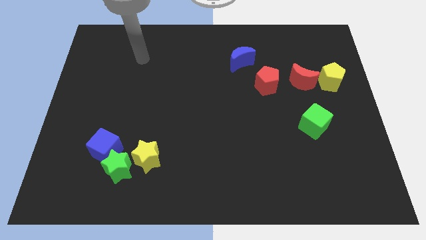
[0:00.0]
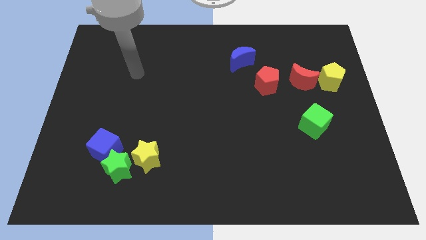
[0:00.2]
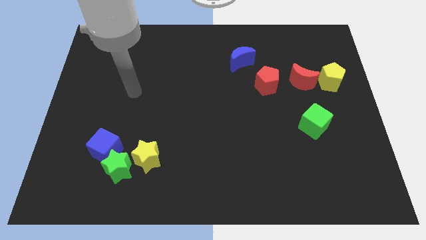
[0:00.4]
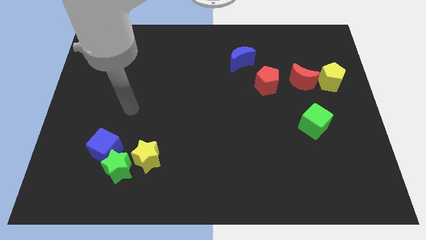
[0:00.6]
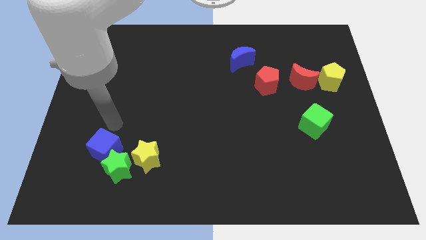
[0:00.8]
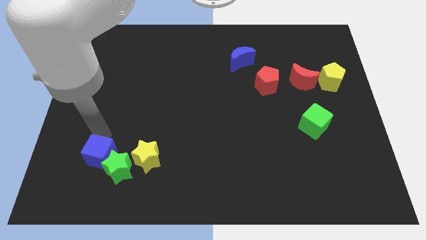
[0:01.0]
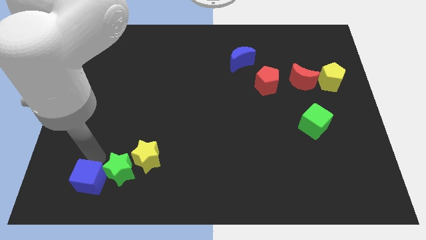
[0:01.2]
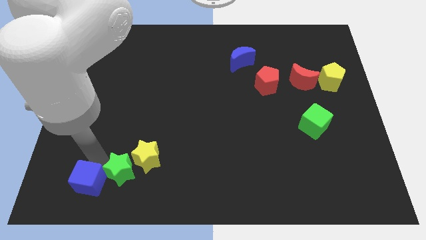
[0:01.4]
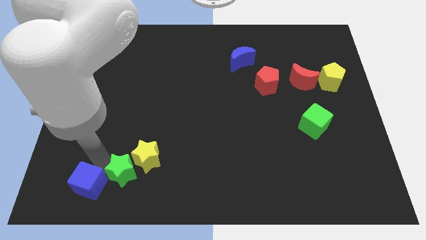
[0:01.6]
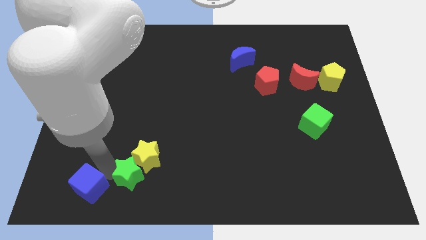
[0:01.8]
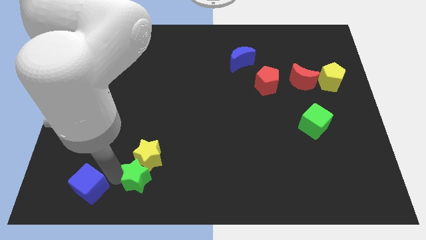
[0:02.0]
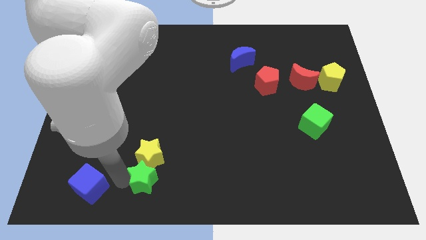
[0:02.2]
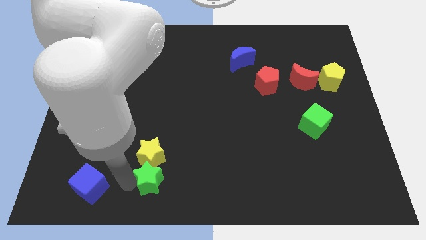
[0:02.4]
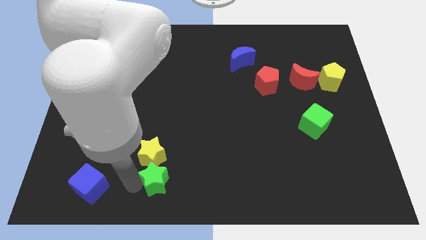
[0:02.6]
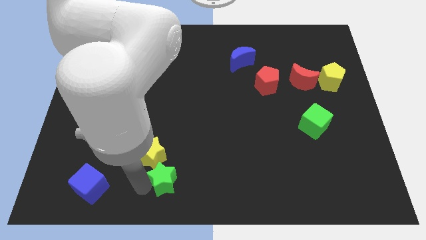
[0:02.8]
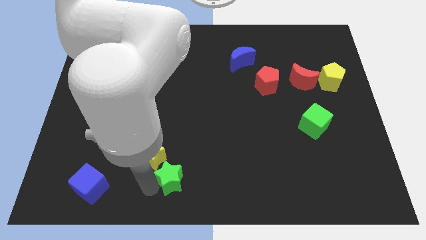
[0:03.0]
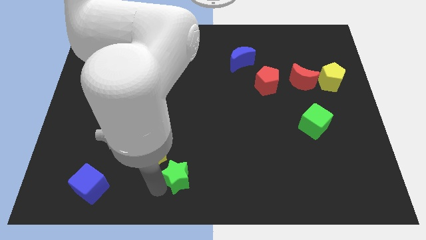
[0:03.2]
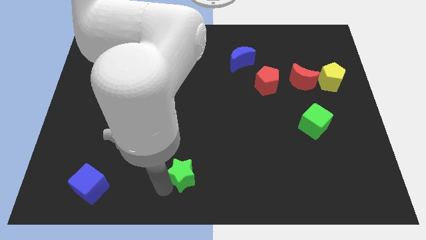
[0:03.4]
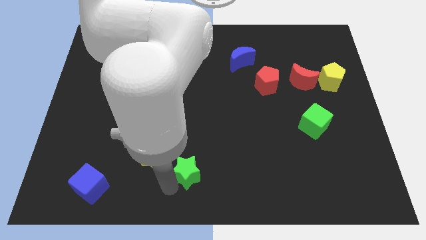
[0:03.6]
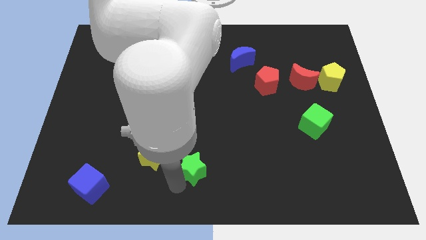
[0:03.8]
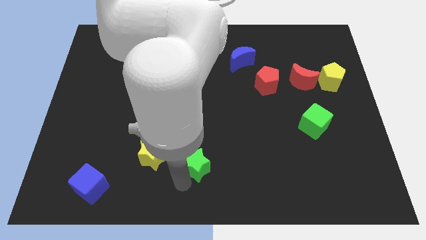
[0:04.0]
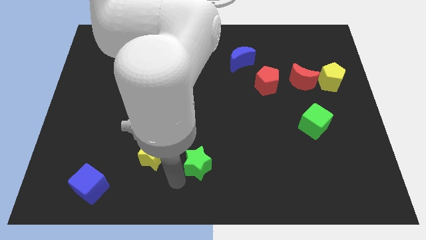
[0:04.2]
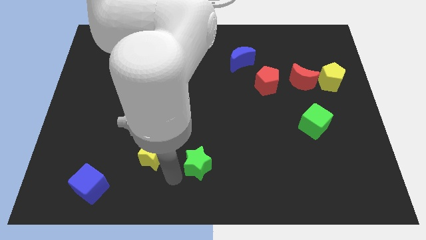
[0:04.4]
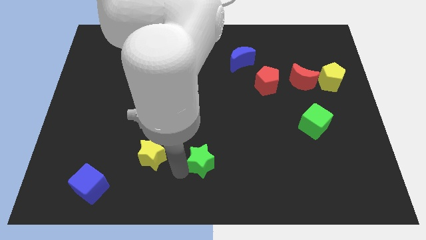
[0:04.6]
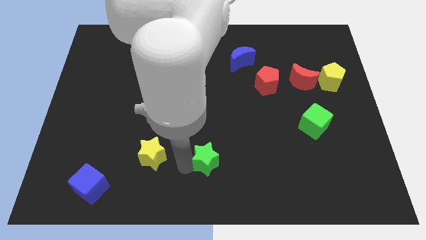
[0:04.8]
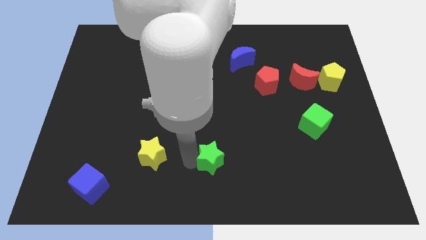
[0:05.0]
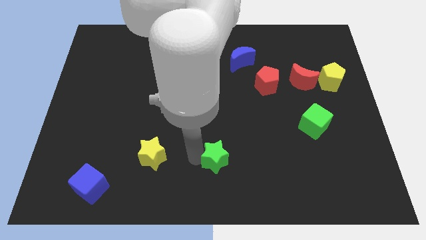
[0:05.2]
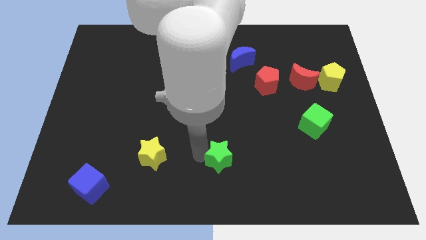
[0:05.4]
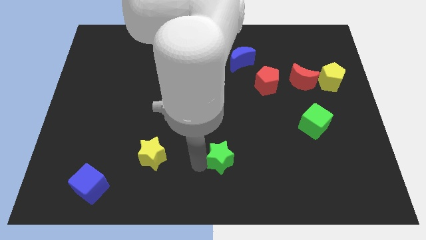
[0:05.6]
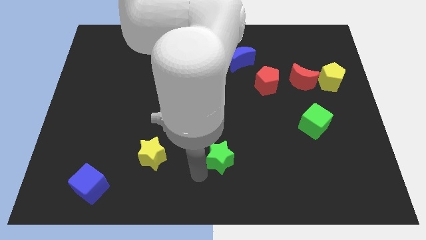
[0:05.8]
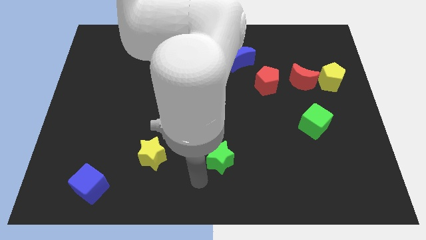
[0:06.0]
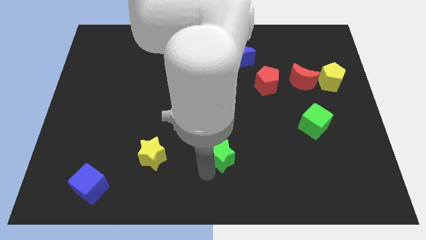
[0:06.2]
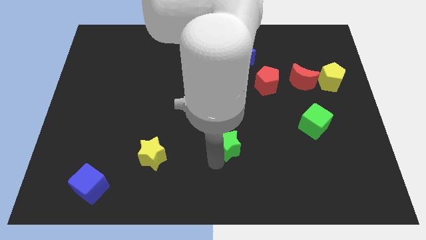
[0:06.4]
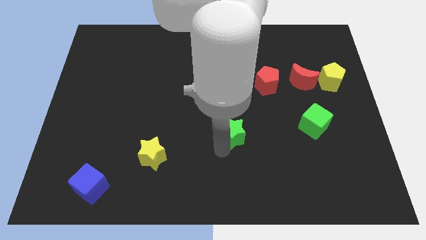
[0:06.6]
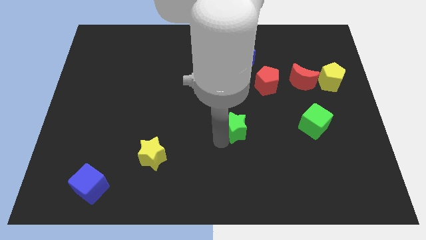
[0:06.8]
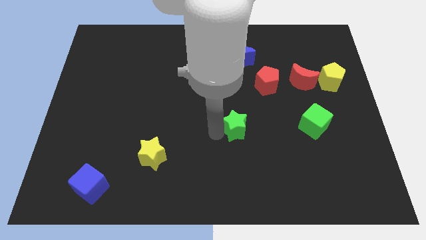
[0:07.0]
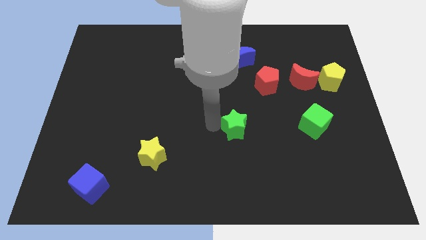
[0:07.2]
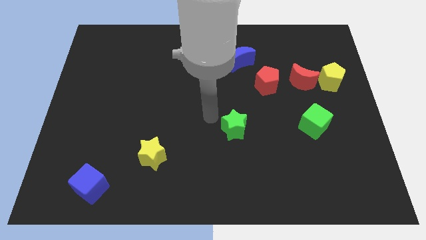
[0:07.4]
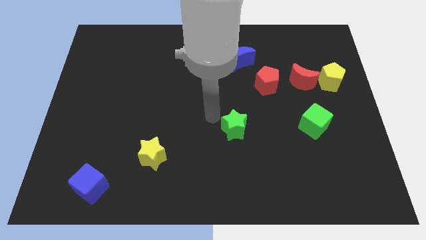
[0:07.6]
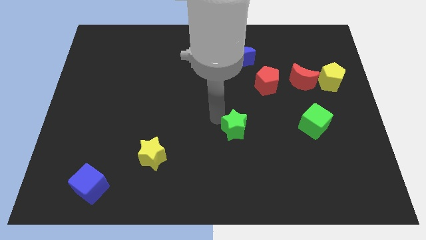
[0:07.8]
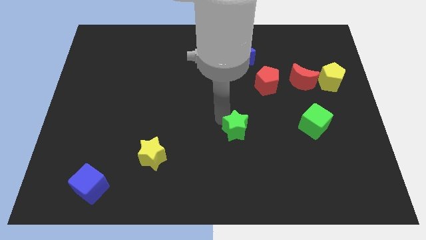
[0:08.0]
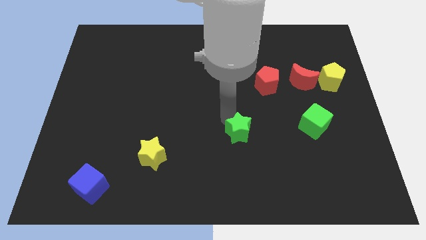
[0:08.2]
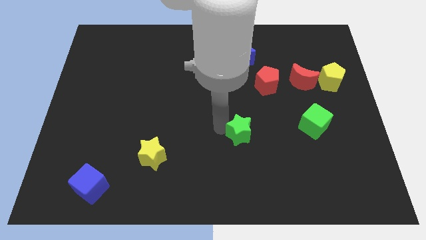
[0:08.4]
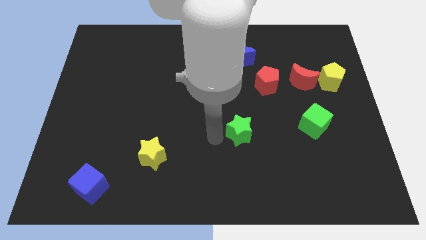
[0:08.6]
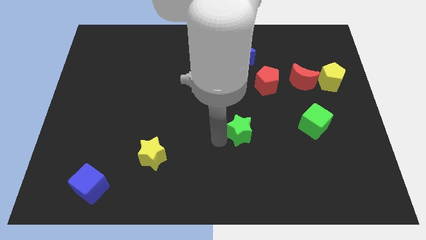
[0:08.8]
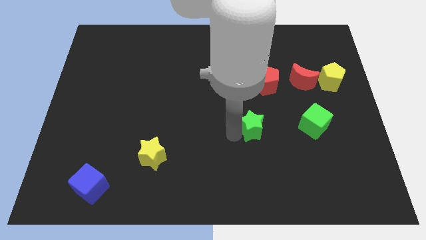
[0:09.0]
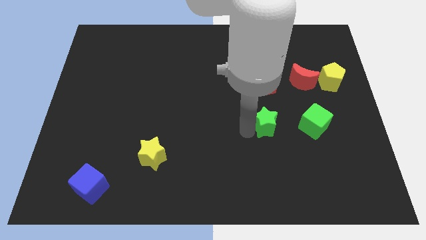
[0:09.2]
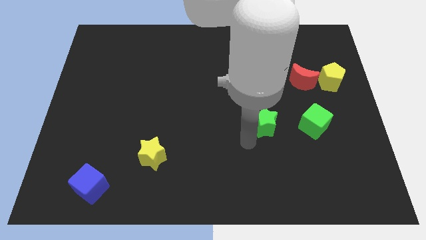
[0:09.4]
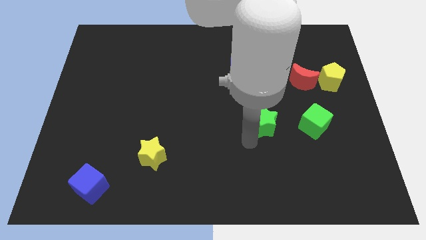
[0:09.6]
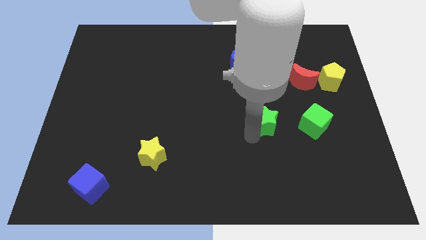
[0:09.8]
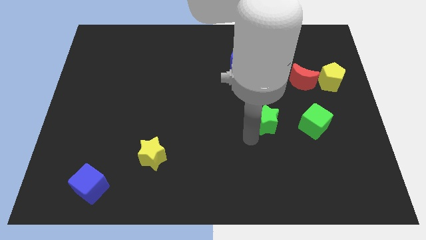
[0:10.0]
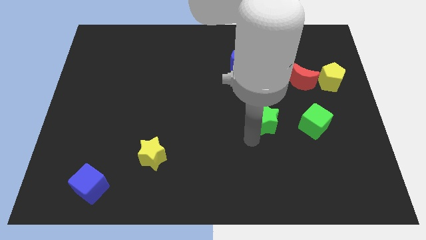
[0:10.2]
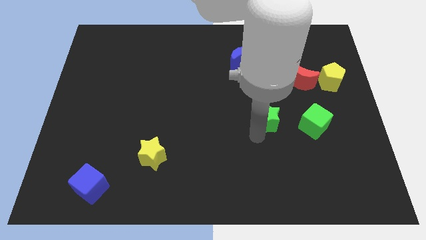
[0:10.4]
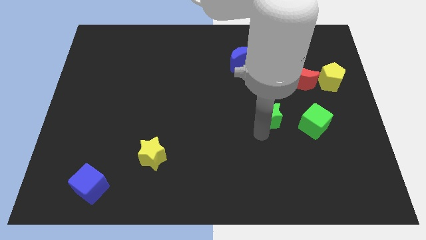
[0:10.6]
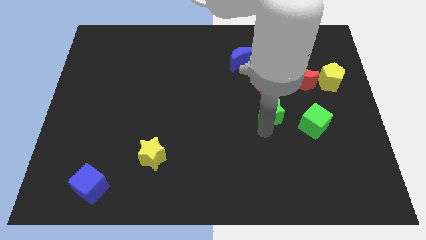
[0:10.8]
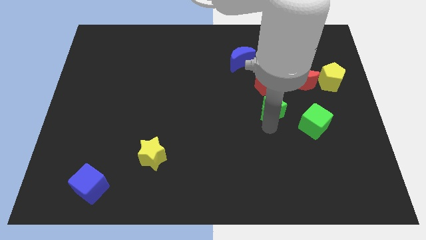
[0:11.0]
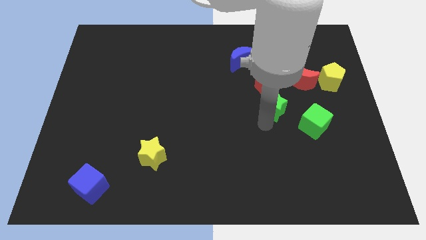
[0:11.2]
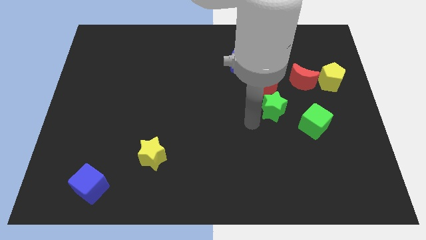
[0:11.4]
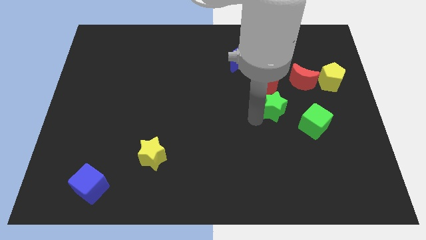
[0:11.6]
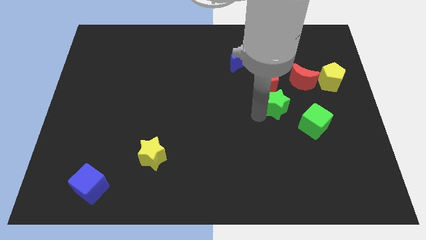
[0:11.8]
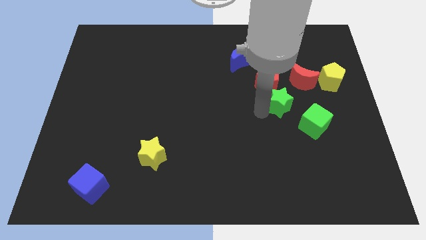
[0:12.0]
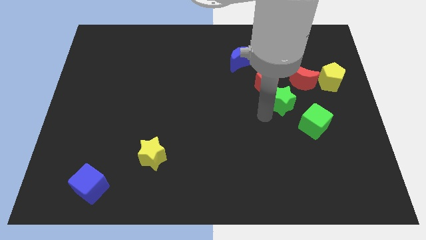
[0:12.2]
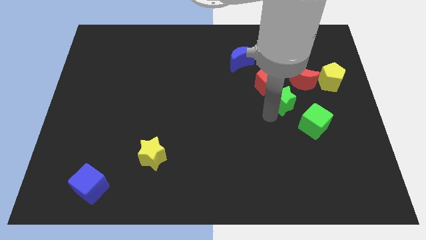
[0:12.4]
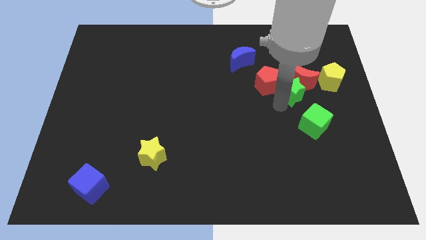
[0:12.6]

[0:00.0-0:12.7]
move the green star to the red moon
